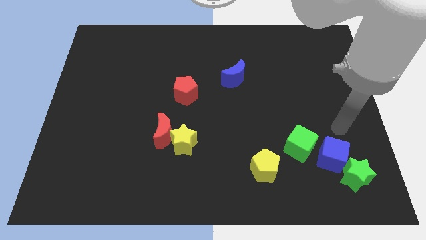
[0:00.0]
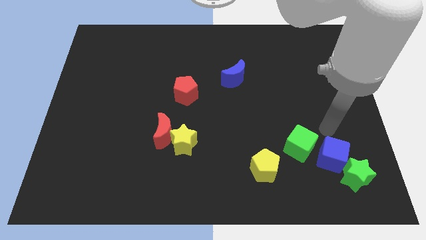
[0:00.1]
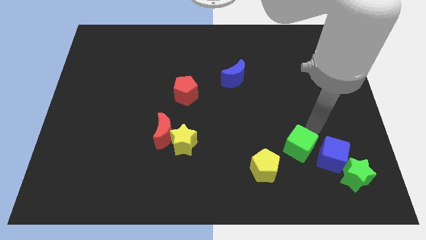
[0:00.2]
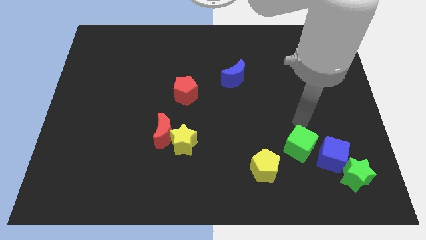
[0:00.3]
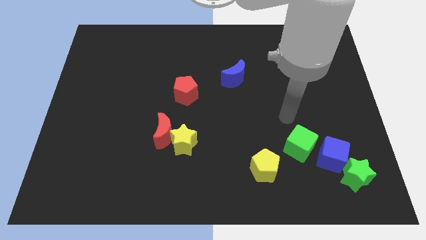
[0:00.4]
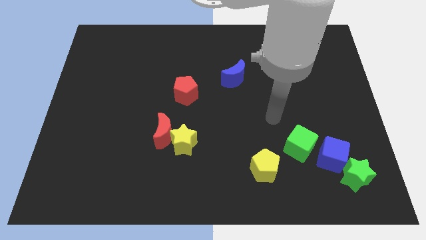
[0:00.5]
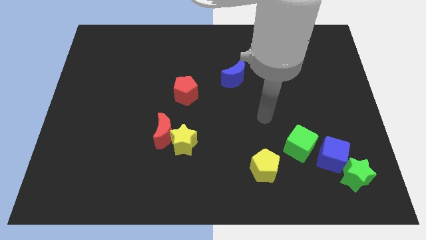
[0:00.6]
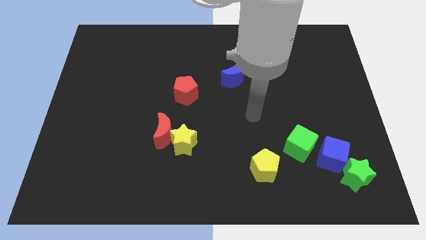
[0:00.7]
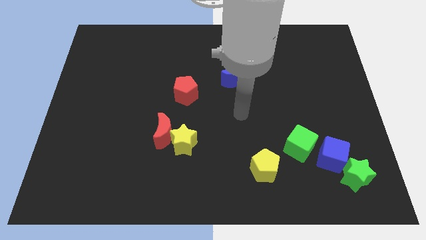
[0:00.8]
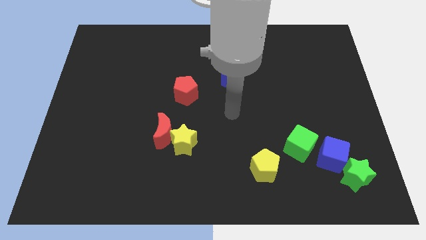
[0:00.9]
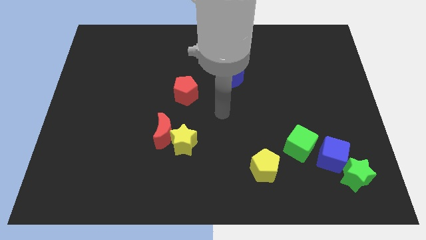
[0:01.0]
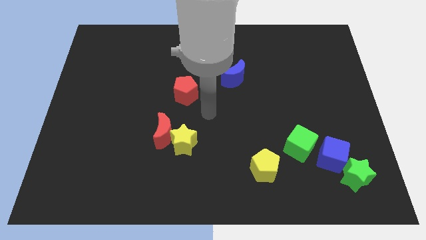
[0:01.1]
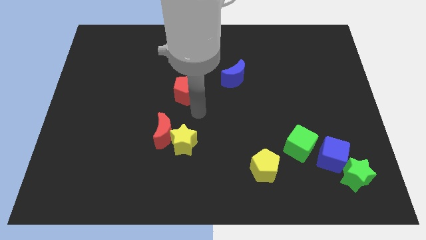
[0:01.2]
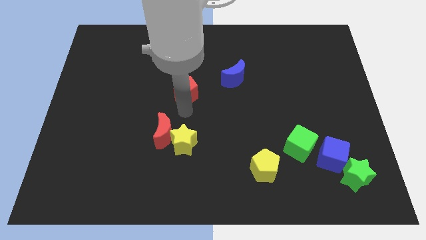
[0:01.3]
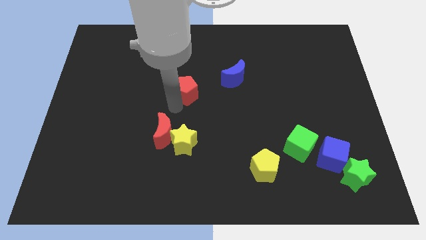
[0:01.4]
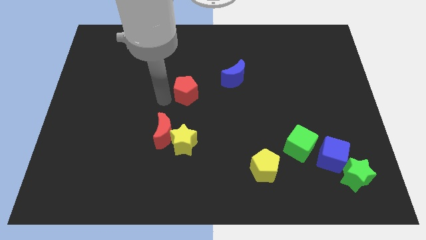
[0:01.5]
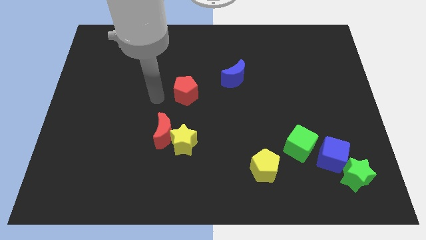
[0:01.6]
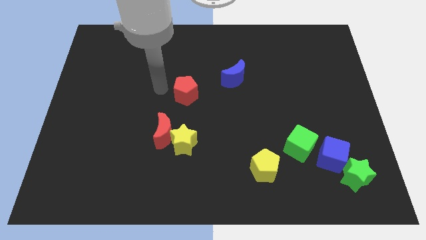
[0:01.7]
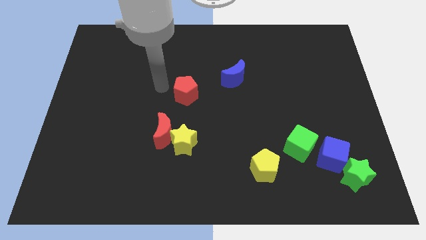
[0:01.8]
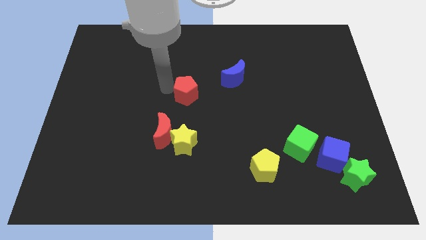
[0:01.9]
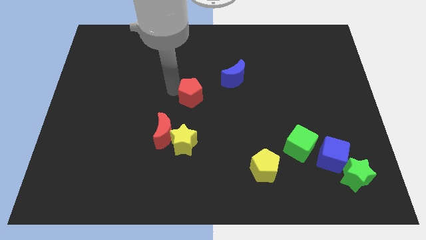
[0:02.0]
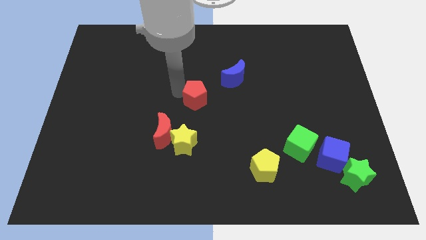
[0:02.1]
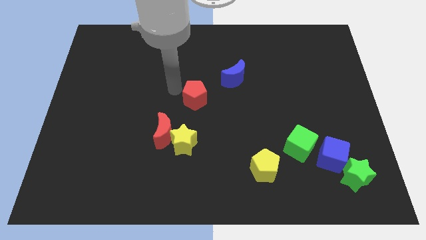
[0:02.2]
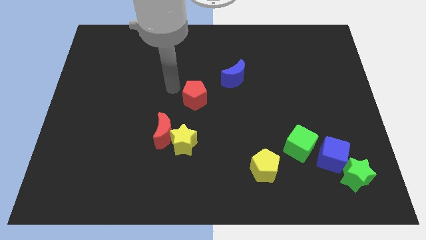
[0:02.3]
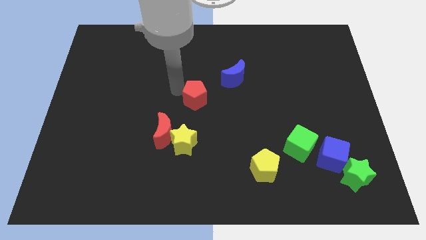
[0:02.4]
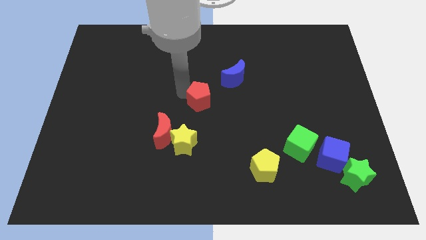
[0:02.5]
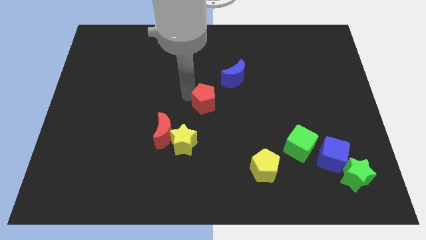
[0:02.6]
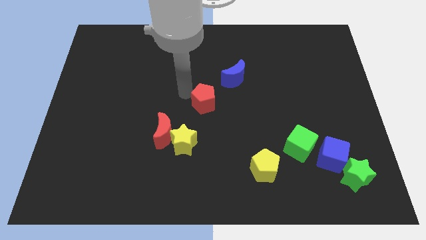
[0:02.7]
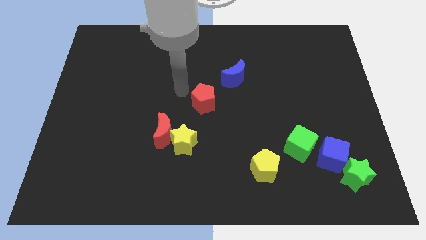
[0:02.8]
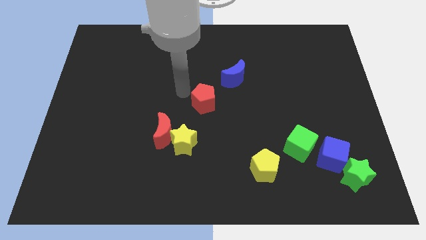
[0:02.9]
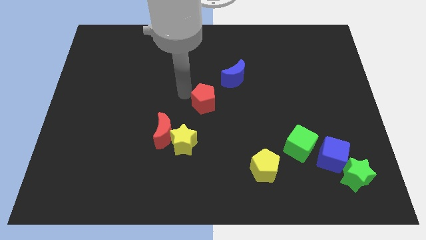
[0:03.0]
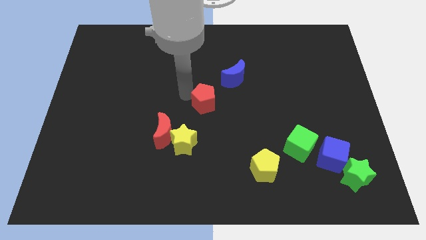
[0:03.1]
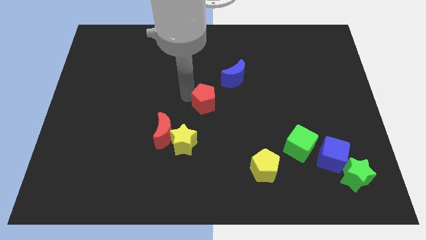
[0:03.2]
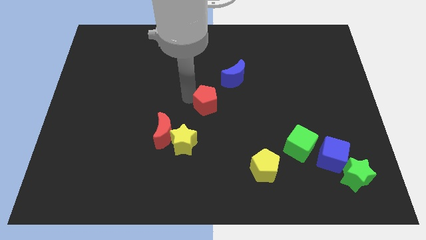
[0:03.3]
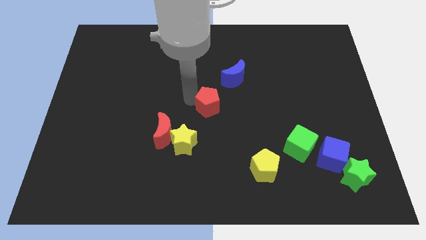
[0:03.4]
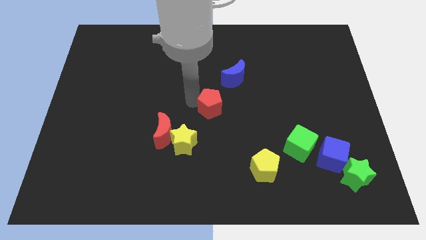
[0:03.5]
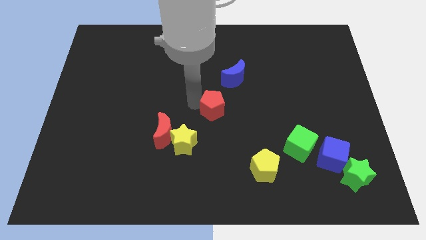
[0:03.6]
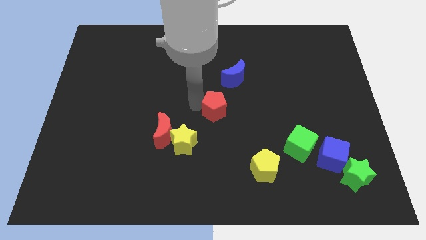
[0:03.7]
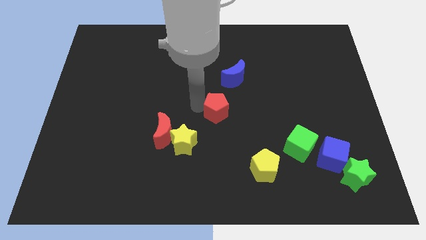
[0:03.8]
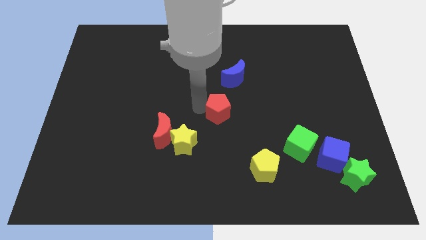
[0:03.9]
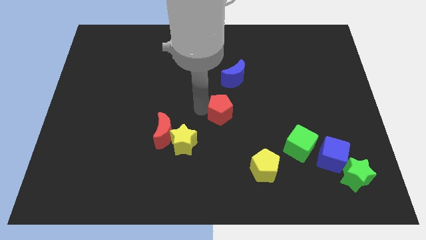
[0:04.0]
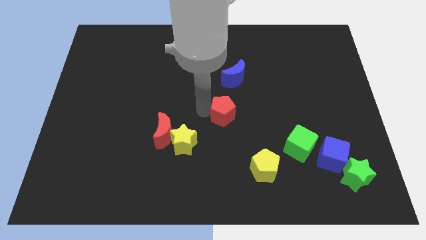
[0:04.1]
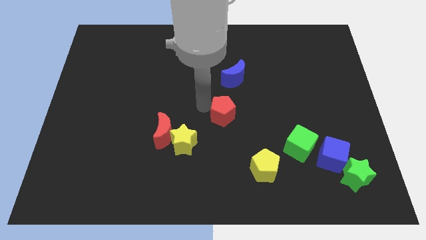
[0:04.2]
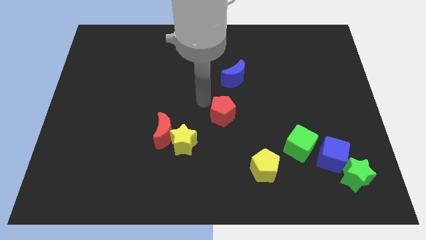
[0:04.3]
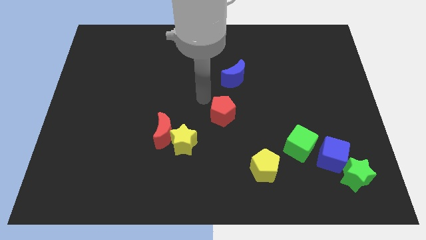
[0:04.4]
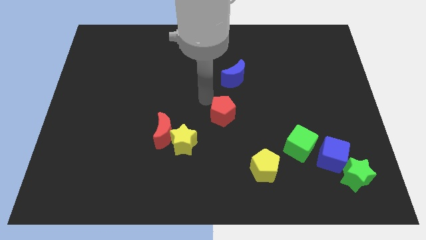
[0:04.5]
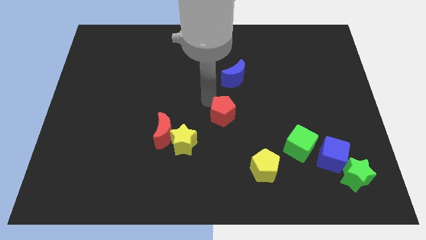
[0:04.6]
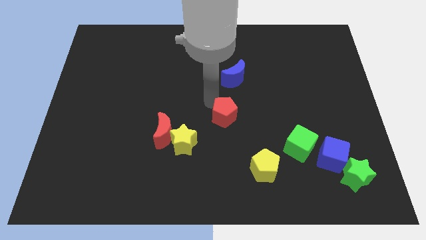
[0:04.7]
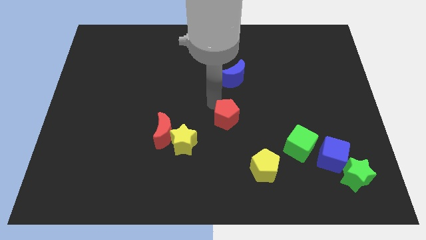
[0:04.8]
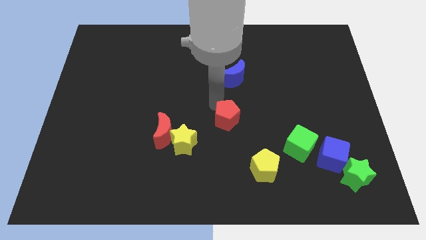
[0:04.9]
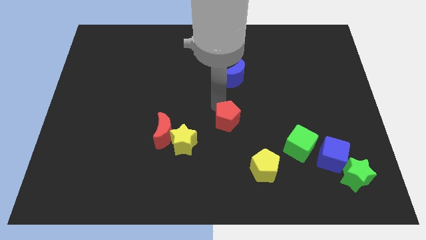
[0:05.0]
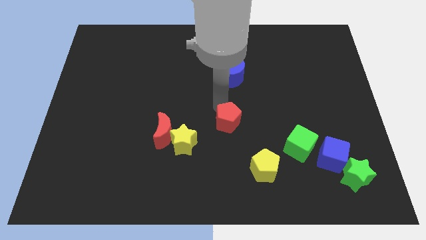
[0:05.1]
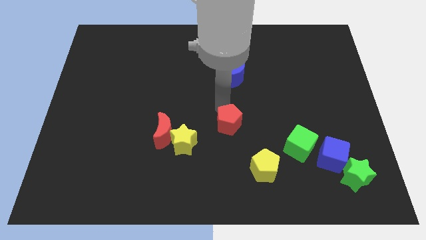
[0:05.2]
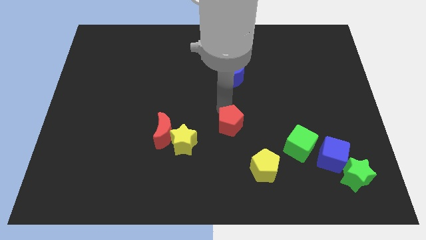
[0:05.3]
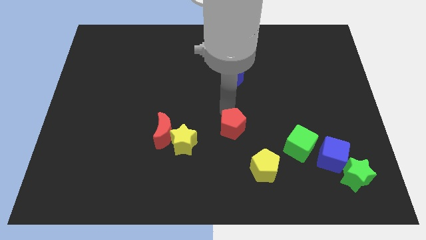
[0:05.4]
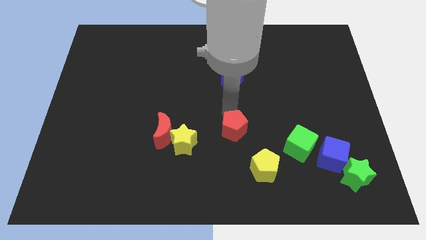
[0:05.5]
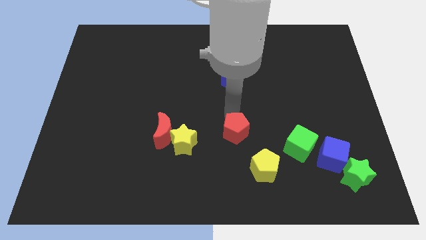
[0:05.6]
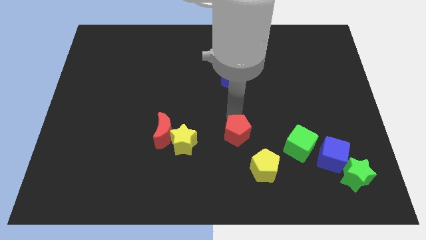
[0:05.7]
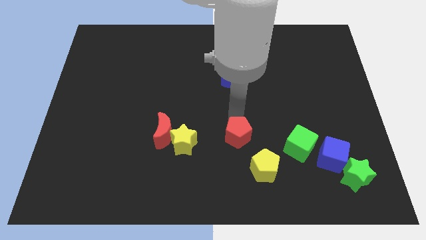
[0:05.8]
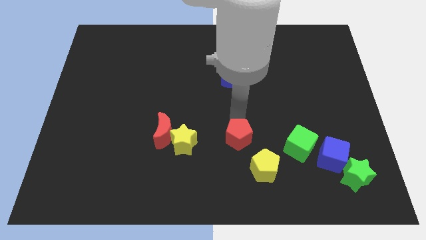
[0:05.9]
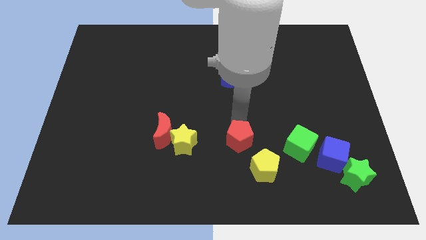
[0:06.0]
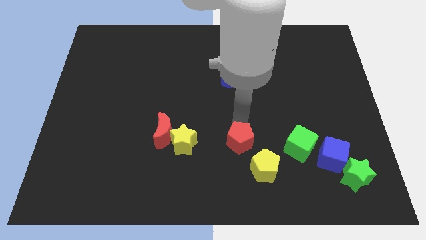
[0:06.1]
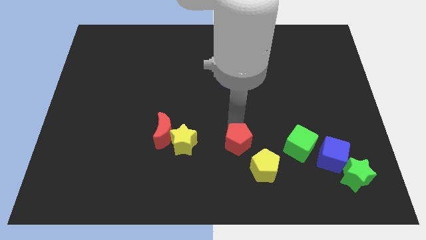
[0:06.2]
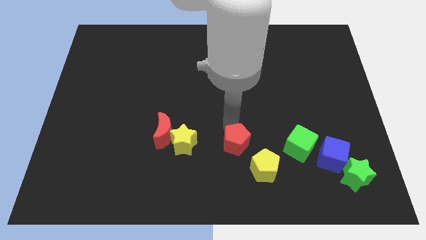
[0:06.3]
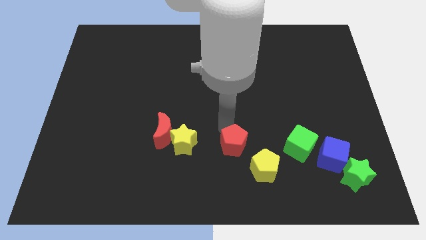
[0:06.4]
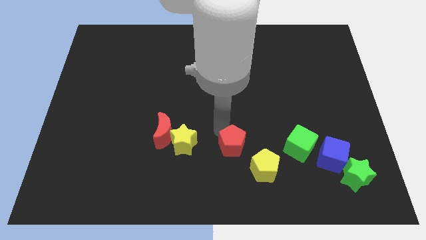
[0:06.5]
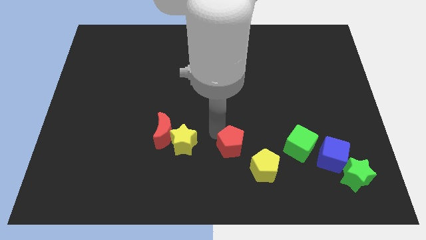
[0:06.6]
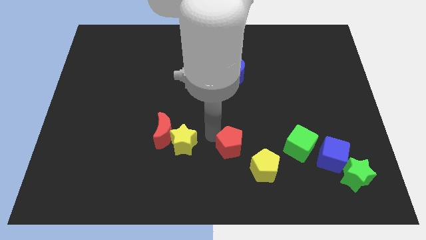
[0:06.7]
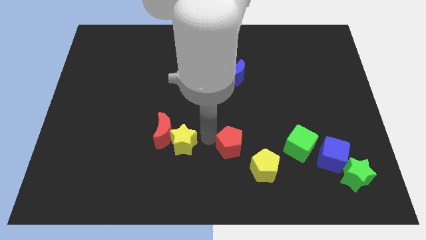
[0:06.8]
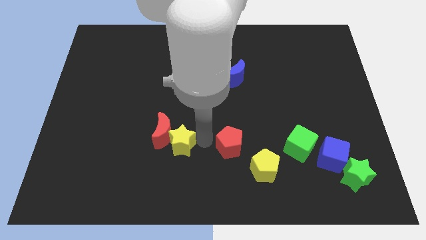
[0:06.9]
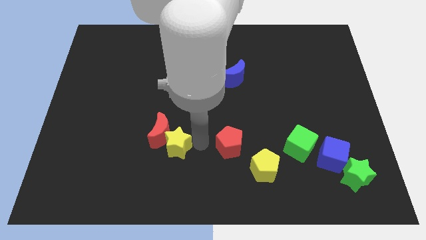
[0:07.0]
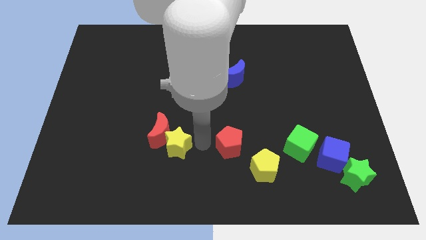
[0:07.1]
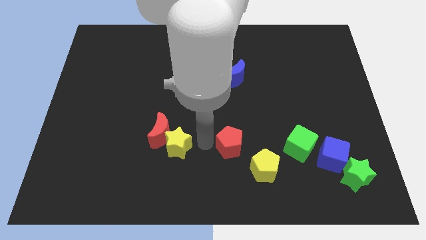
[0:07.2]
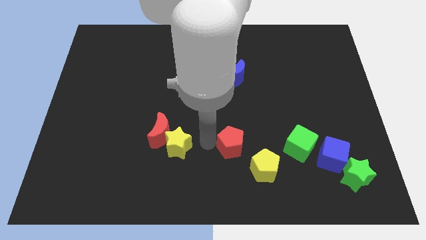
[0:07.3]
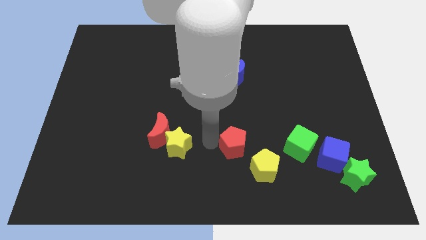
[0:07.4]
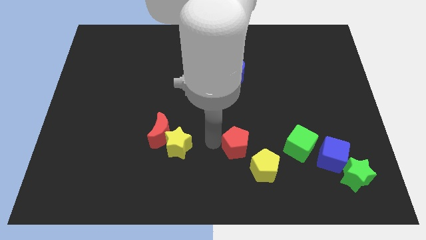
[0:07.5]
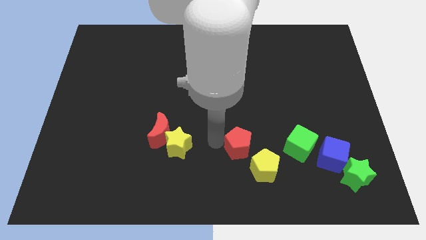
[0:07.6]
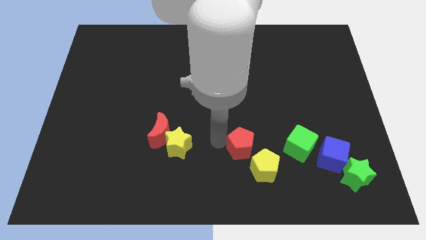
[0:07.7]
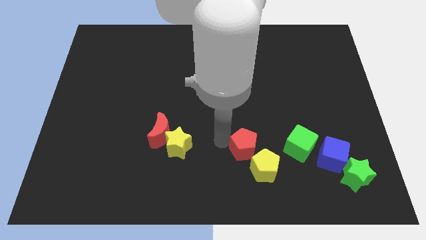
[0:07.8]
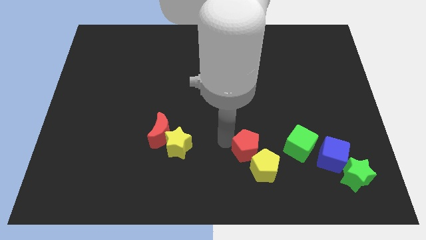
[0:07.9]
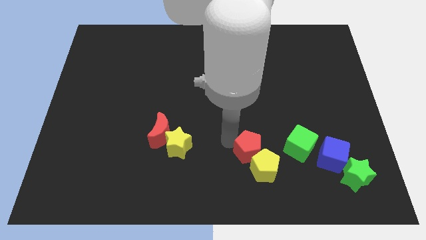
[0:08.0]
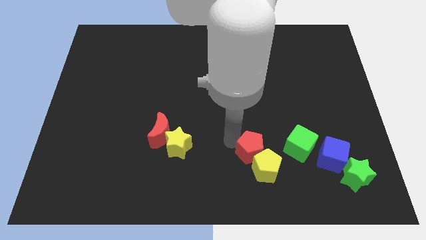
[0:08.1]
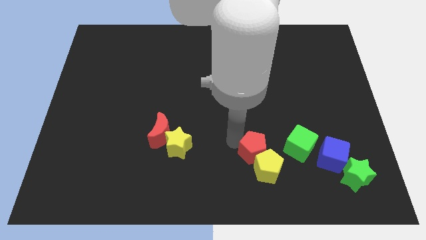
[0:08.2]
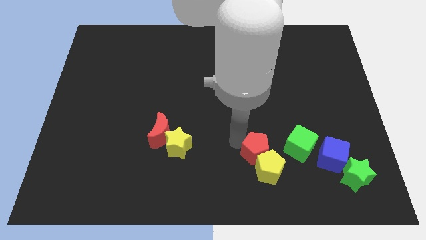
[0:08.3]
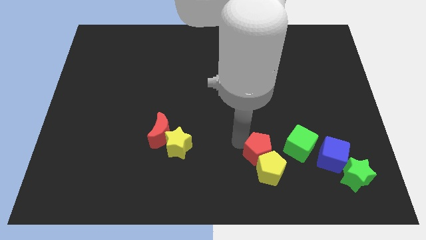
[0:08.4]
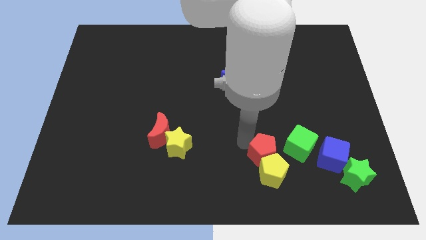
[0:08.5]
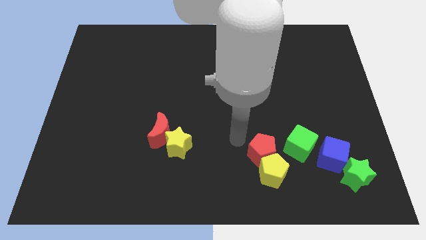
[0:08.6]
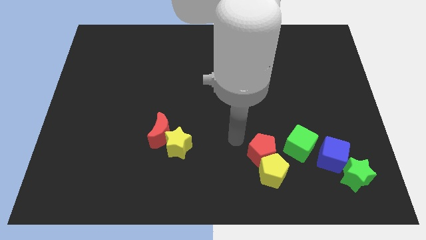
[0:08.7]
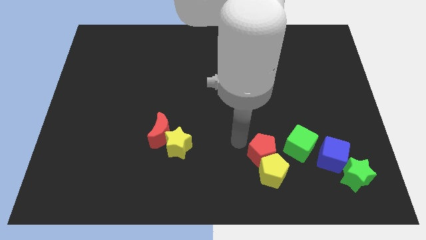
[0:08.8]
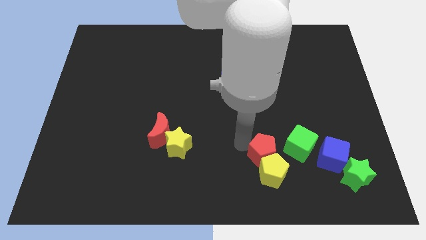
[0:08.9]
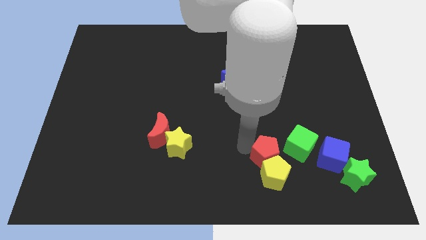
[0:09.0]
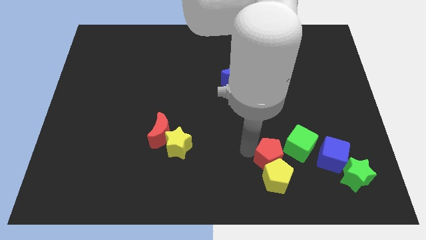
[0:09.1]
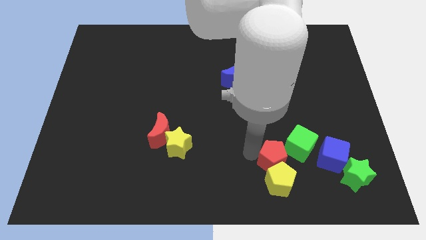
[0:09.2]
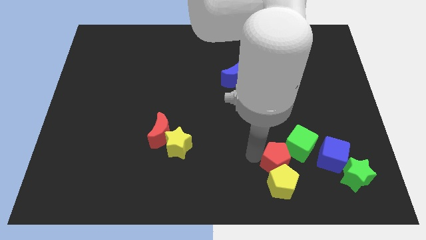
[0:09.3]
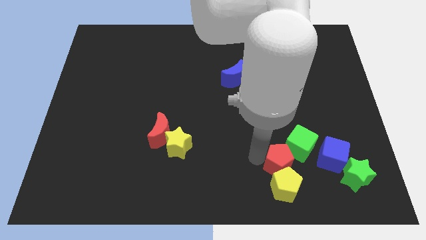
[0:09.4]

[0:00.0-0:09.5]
push the red pentagon to the left of the green star
